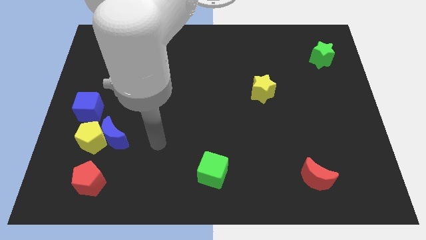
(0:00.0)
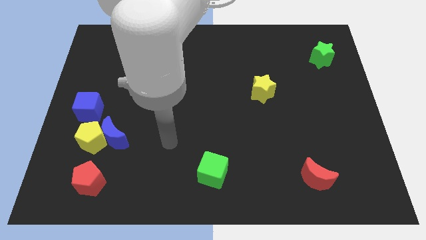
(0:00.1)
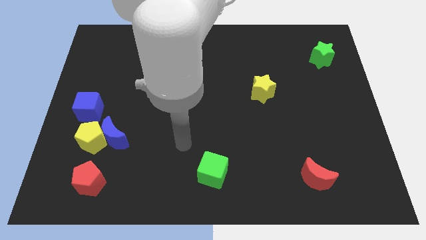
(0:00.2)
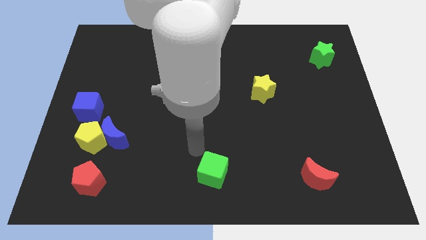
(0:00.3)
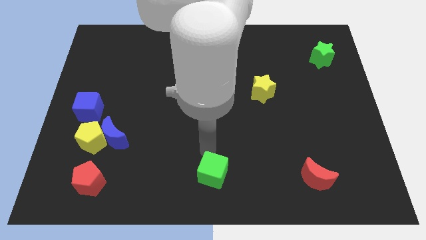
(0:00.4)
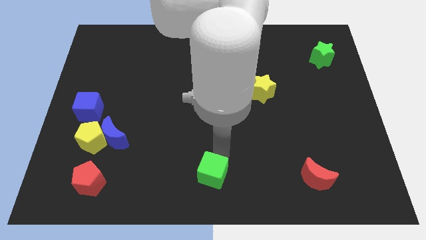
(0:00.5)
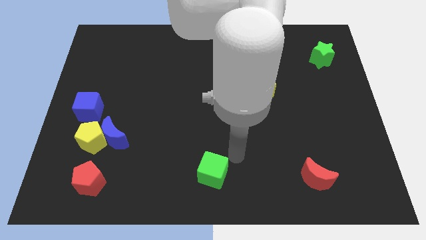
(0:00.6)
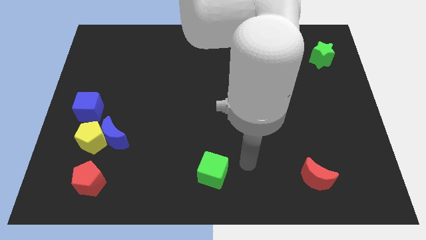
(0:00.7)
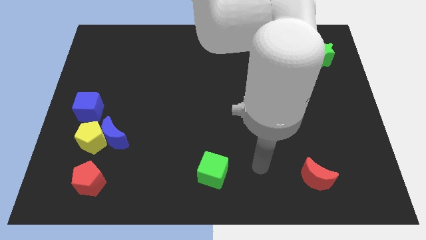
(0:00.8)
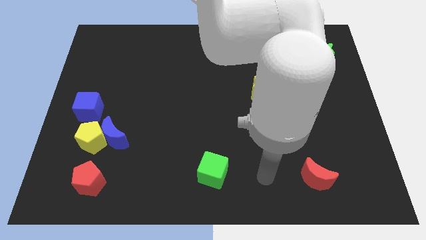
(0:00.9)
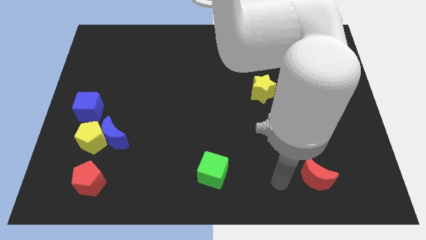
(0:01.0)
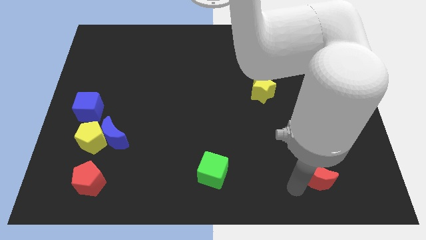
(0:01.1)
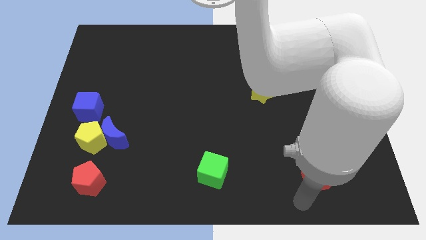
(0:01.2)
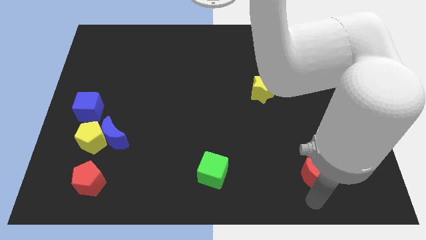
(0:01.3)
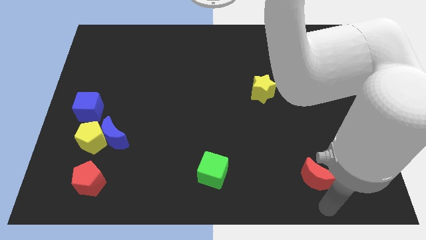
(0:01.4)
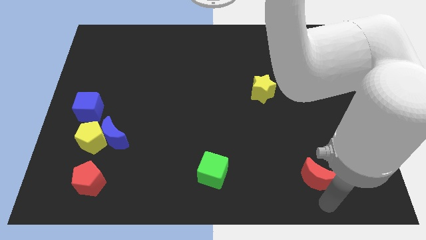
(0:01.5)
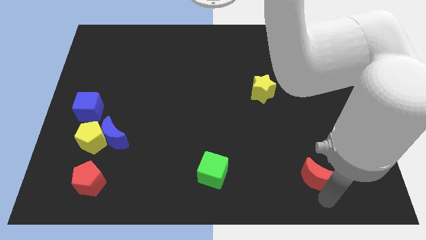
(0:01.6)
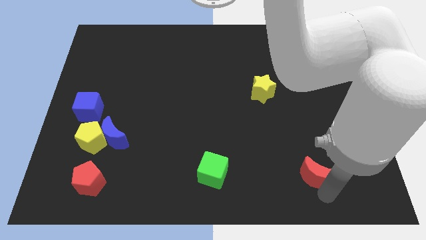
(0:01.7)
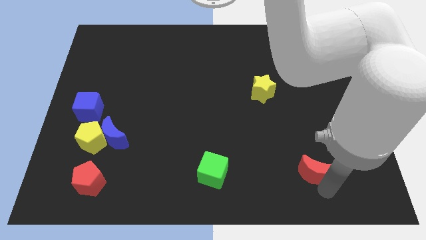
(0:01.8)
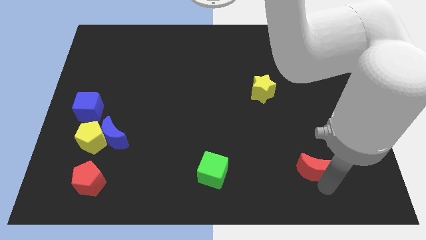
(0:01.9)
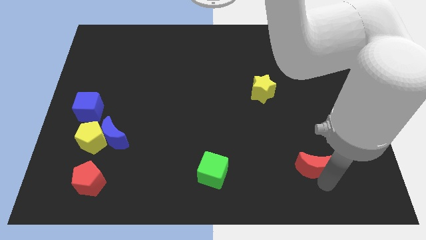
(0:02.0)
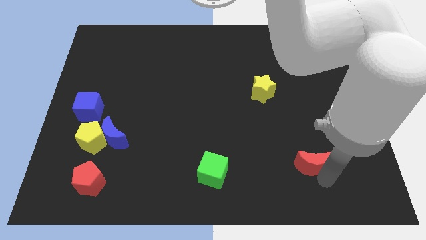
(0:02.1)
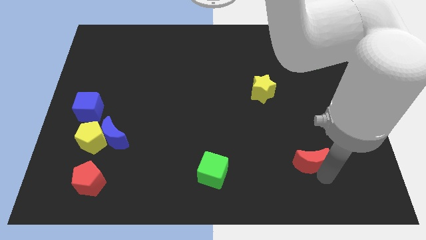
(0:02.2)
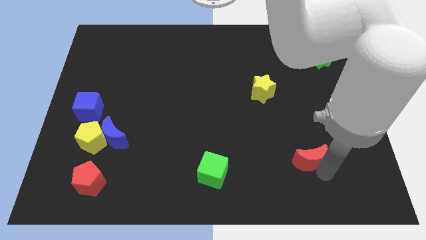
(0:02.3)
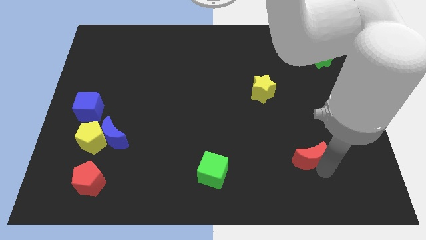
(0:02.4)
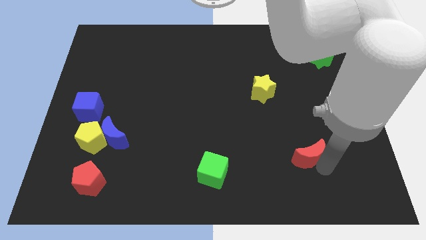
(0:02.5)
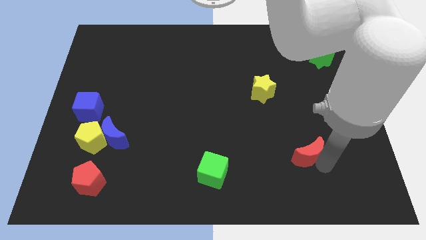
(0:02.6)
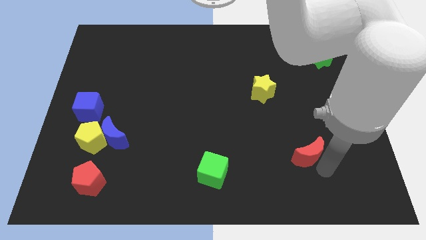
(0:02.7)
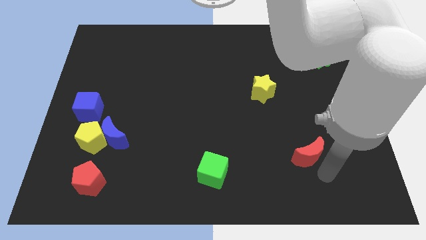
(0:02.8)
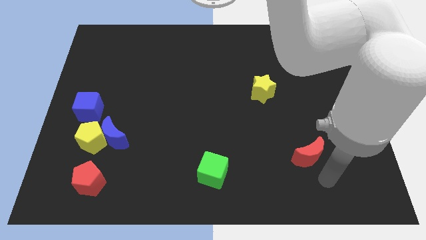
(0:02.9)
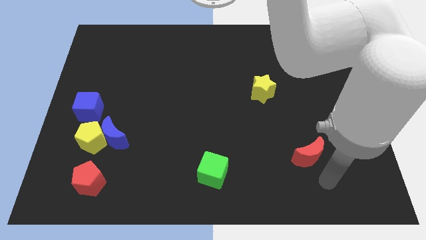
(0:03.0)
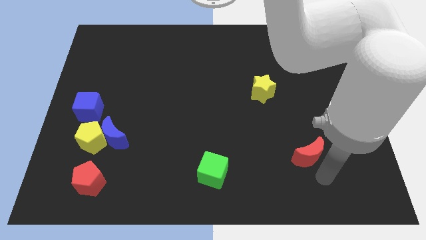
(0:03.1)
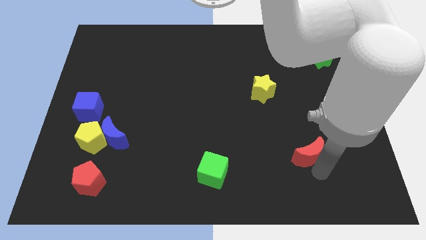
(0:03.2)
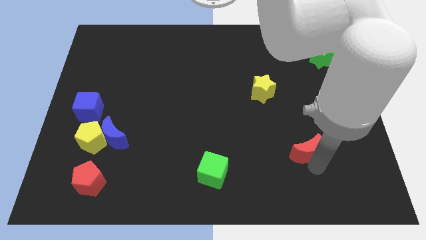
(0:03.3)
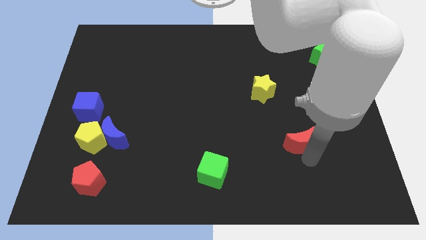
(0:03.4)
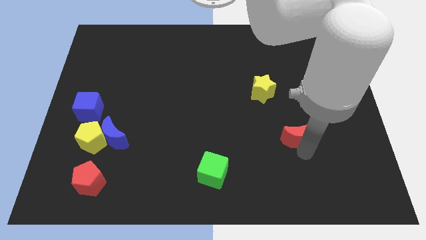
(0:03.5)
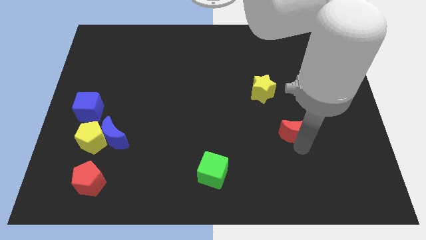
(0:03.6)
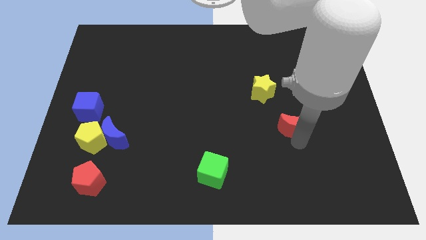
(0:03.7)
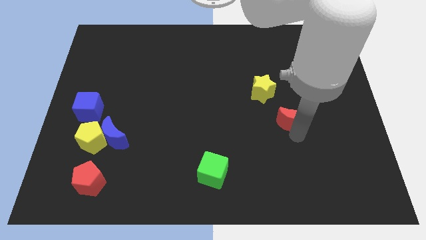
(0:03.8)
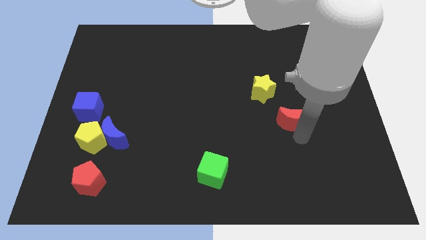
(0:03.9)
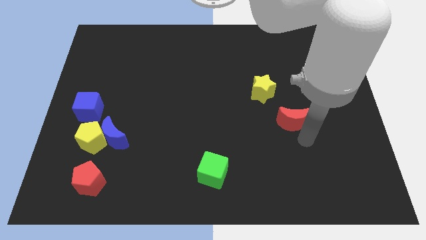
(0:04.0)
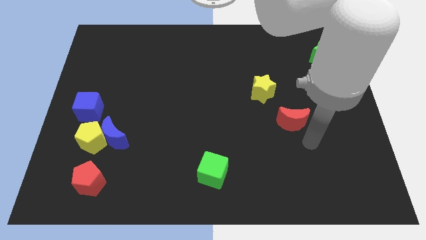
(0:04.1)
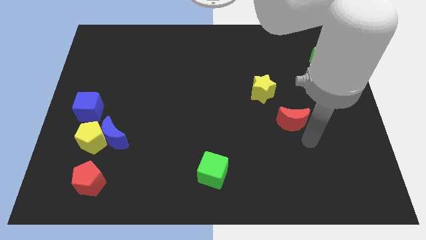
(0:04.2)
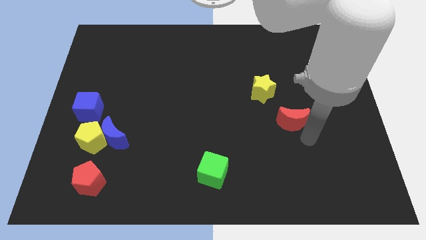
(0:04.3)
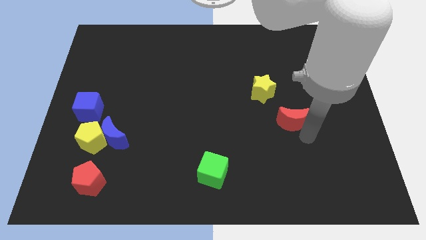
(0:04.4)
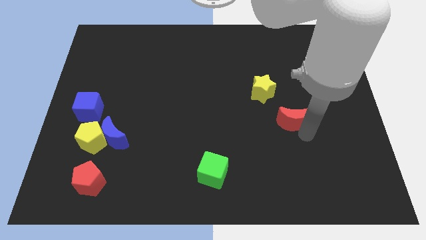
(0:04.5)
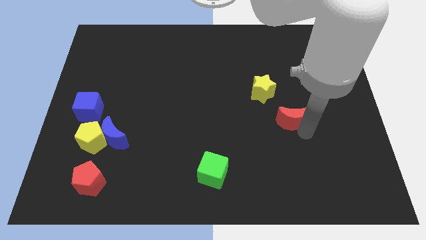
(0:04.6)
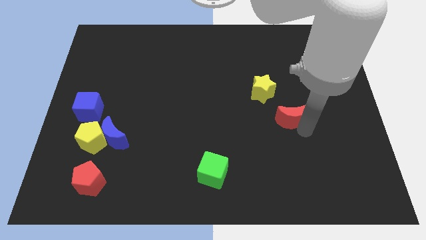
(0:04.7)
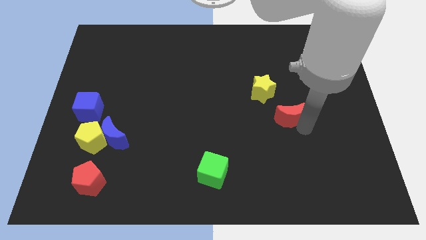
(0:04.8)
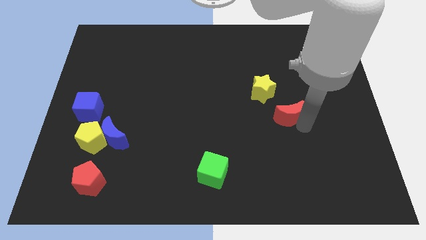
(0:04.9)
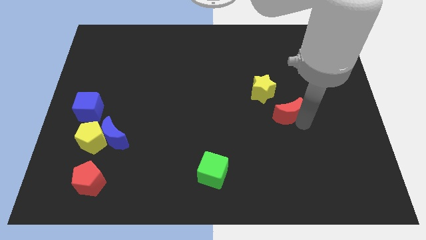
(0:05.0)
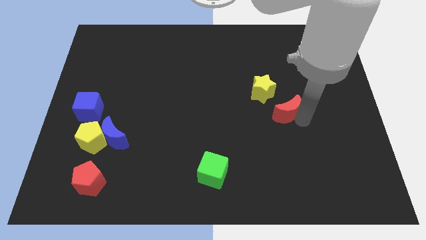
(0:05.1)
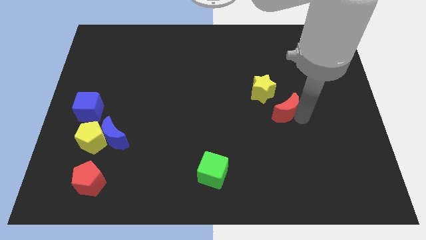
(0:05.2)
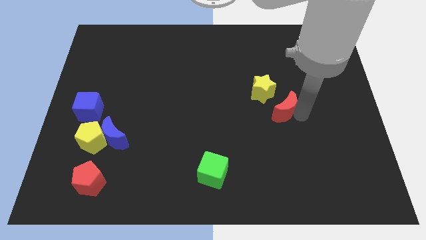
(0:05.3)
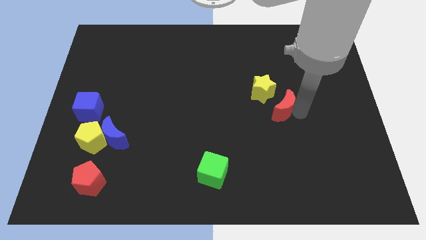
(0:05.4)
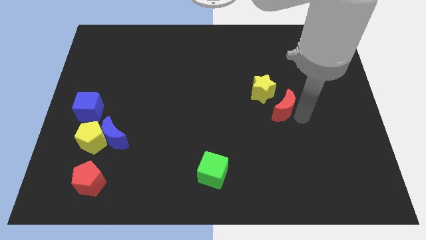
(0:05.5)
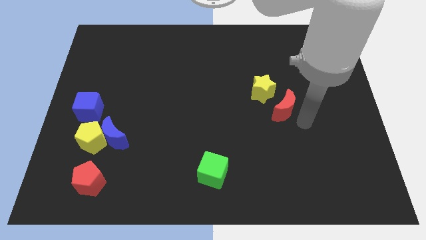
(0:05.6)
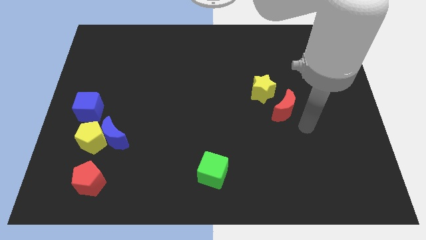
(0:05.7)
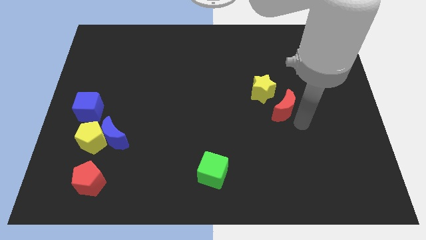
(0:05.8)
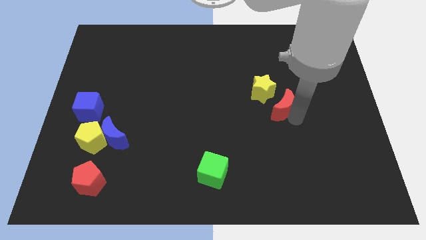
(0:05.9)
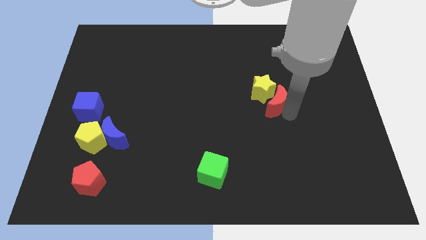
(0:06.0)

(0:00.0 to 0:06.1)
put the red moon close to the yellow star

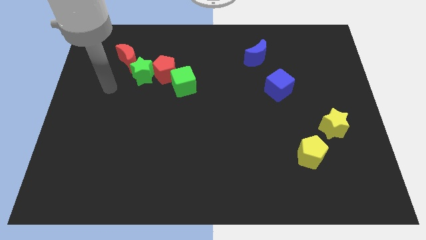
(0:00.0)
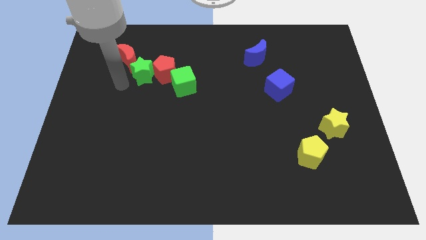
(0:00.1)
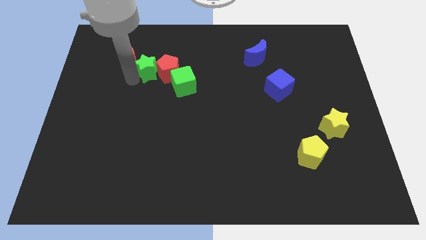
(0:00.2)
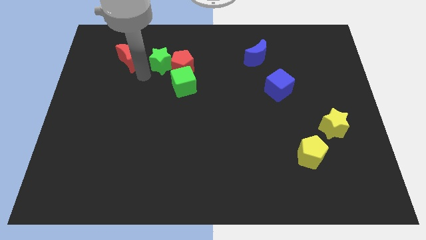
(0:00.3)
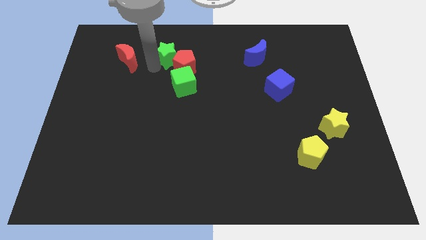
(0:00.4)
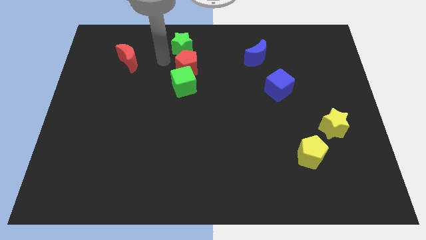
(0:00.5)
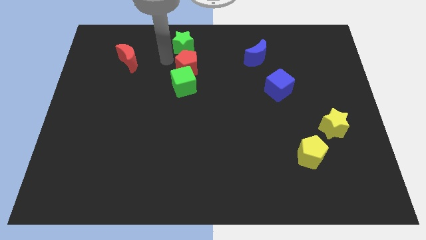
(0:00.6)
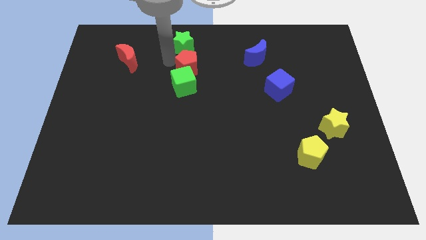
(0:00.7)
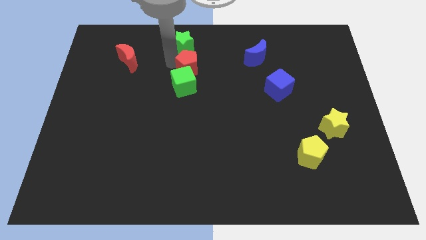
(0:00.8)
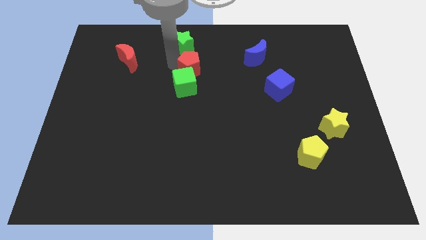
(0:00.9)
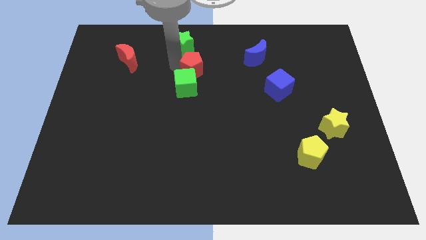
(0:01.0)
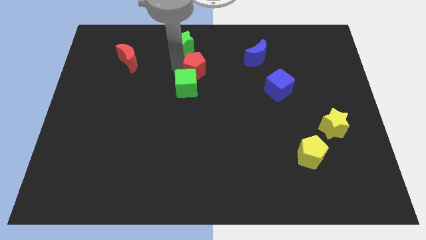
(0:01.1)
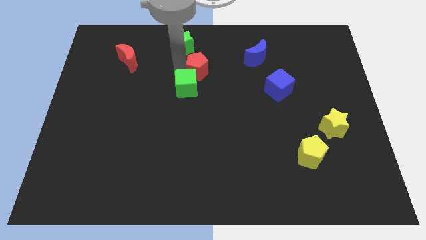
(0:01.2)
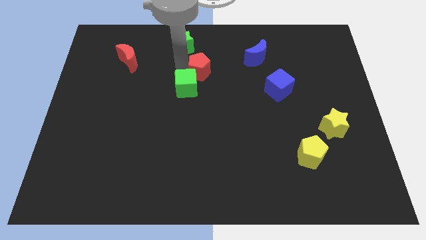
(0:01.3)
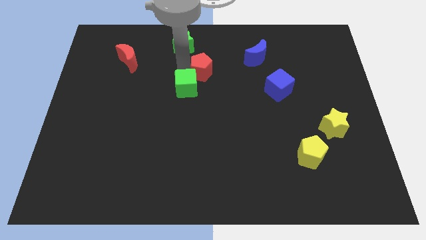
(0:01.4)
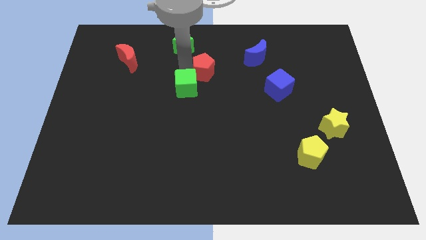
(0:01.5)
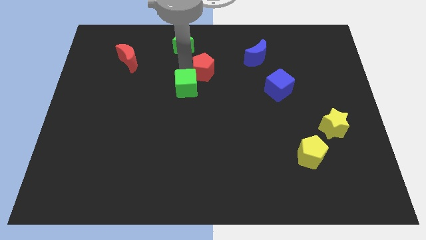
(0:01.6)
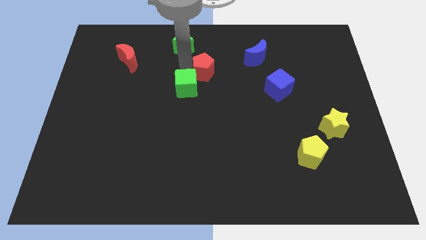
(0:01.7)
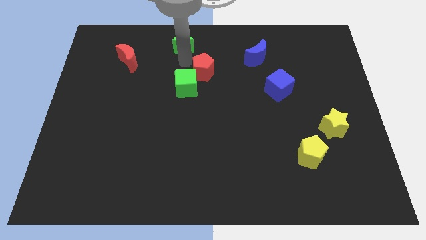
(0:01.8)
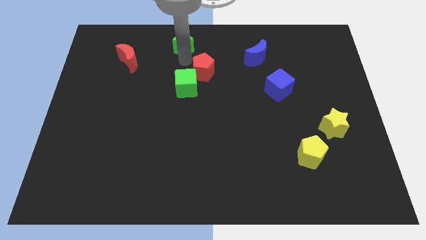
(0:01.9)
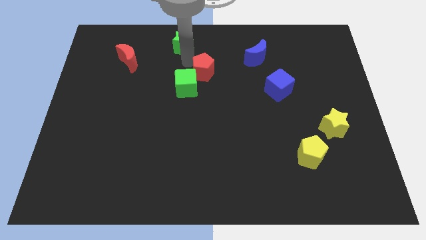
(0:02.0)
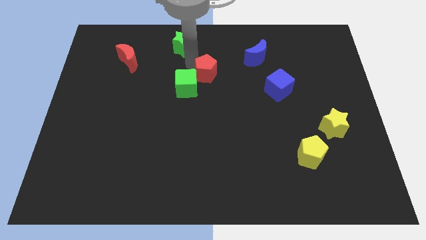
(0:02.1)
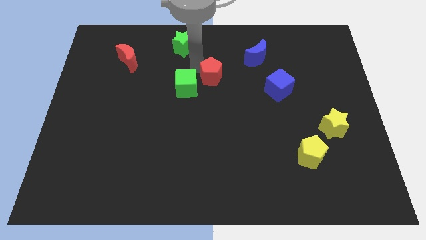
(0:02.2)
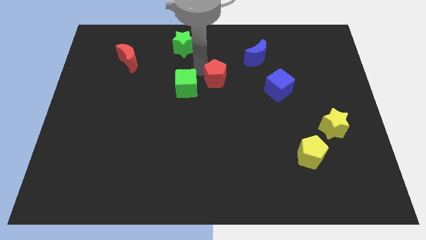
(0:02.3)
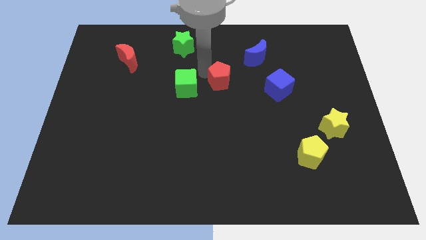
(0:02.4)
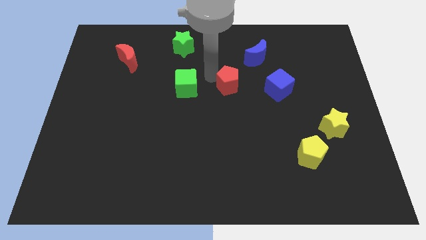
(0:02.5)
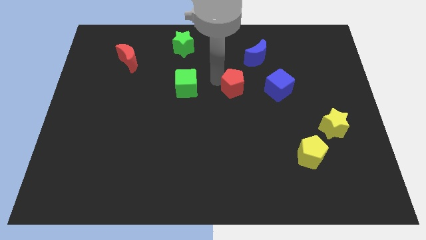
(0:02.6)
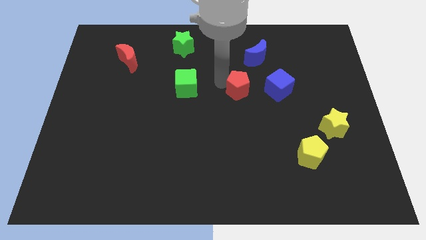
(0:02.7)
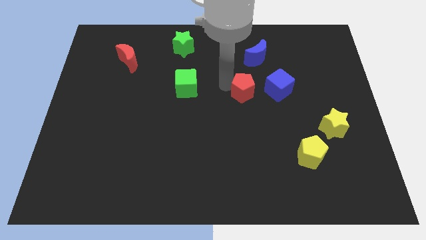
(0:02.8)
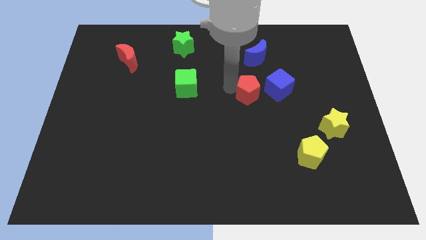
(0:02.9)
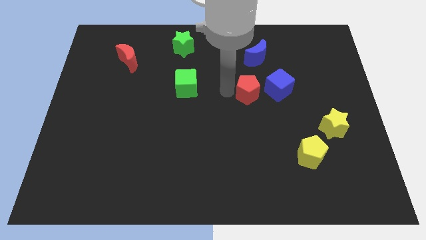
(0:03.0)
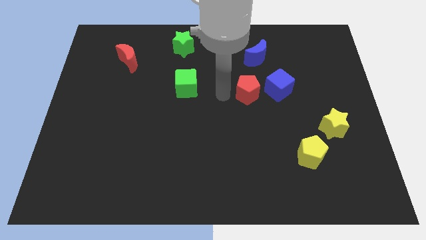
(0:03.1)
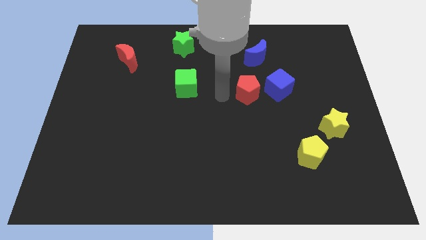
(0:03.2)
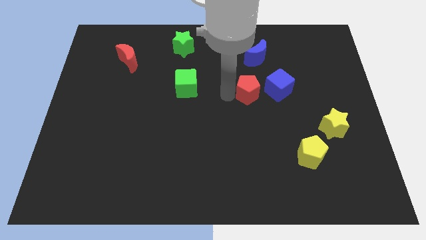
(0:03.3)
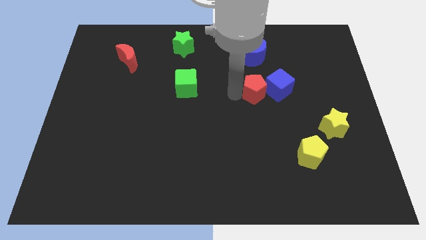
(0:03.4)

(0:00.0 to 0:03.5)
slide the red pentagon towards the blue cube
